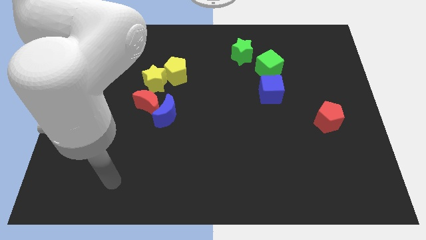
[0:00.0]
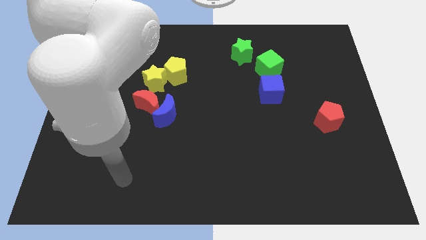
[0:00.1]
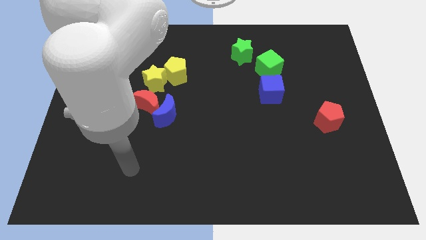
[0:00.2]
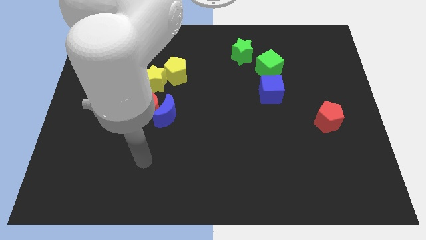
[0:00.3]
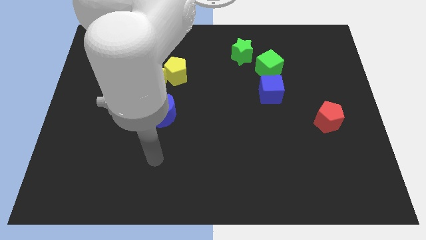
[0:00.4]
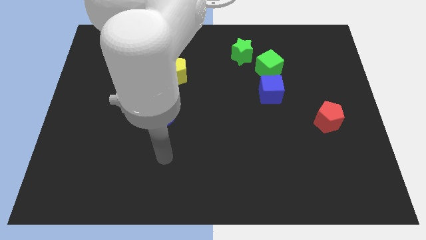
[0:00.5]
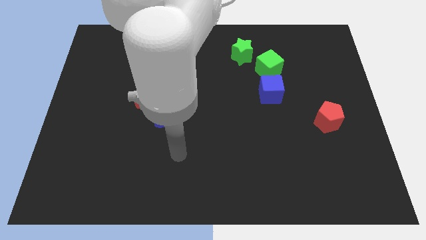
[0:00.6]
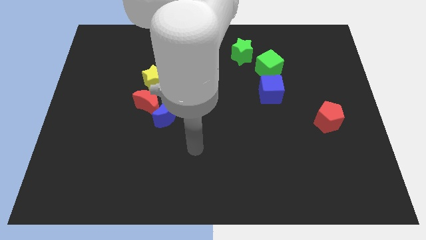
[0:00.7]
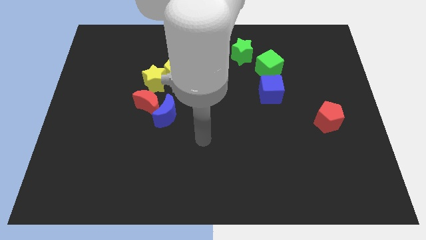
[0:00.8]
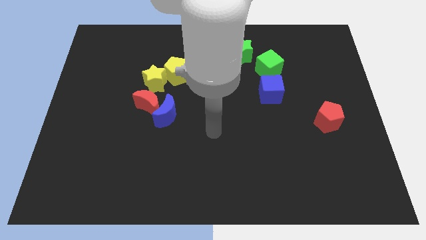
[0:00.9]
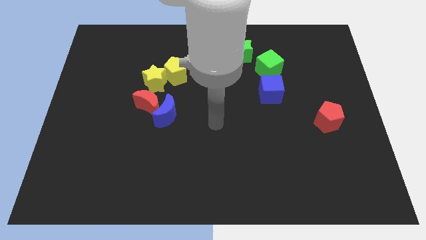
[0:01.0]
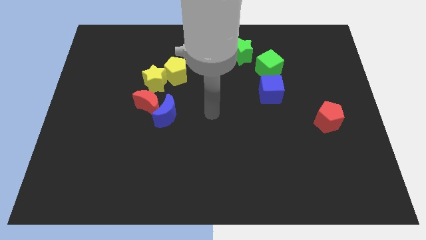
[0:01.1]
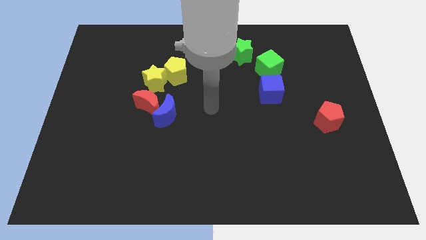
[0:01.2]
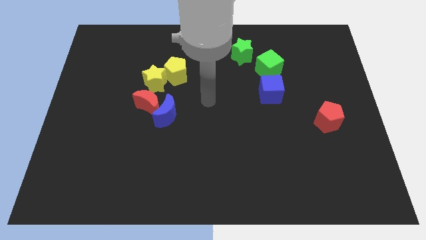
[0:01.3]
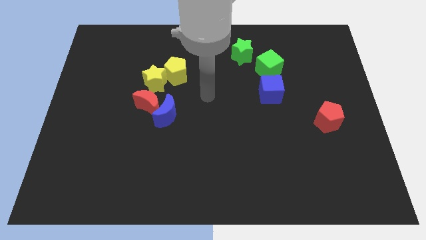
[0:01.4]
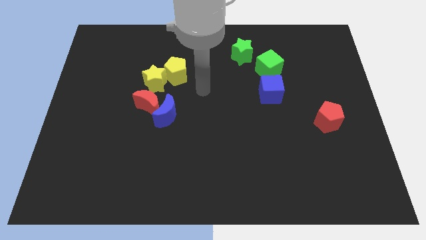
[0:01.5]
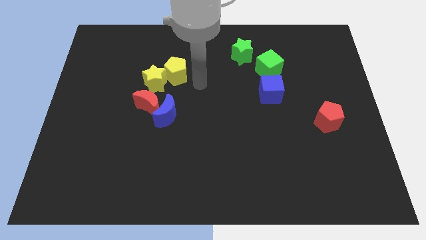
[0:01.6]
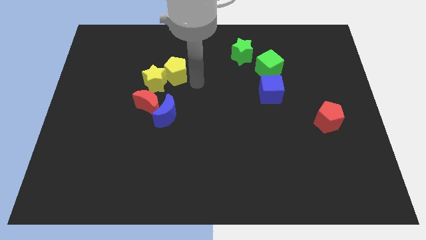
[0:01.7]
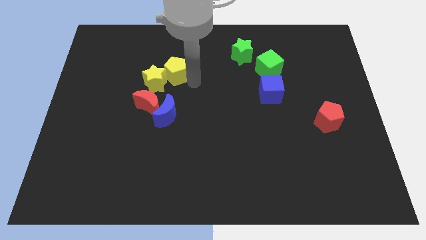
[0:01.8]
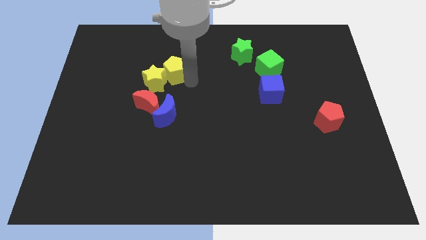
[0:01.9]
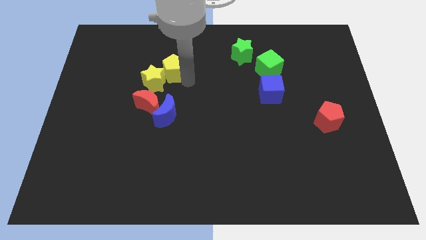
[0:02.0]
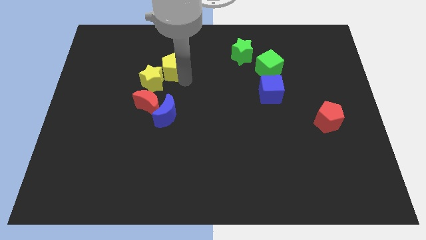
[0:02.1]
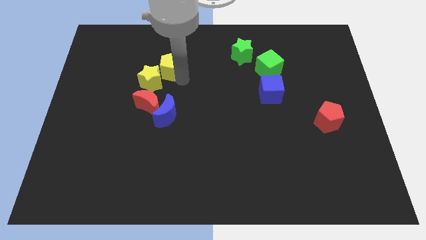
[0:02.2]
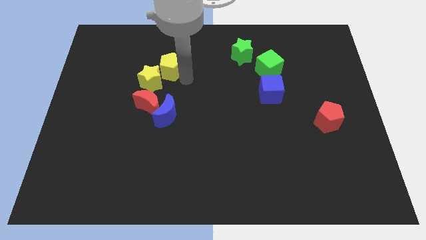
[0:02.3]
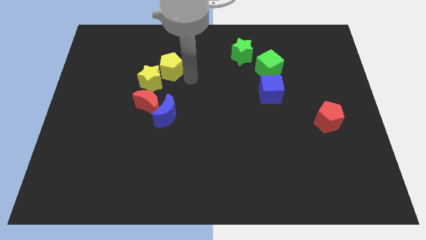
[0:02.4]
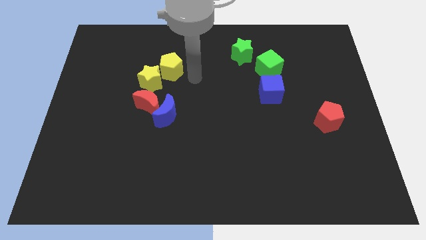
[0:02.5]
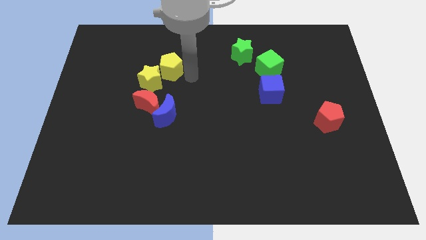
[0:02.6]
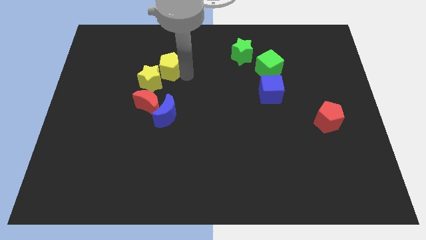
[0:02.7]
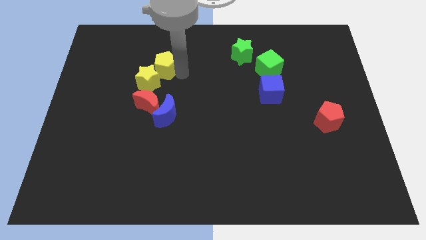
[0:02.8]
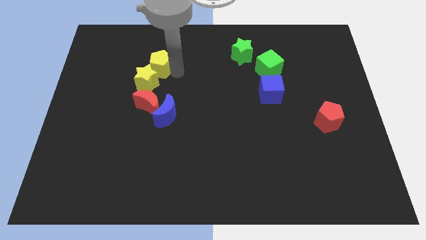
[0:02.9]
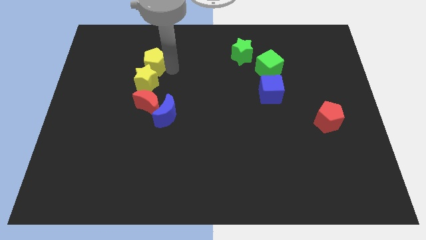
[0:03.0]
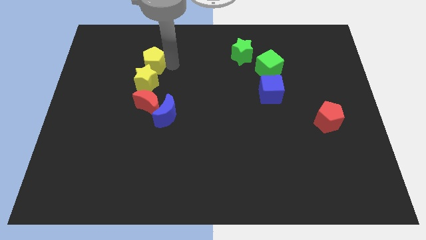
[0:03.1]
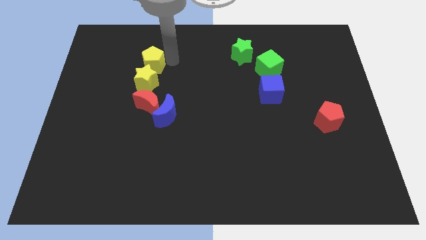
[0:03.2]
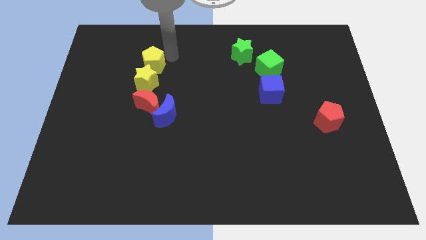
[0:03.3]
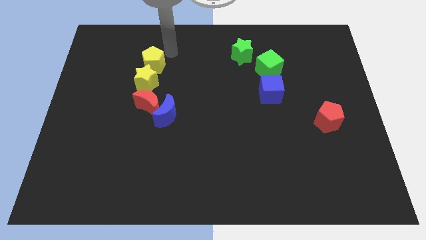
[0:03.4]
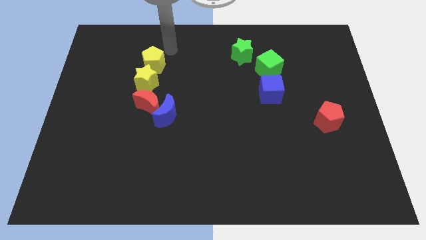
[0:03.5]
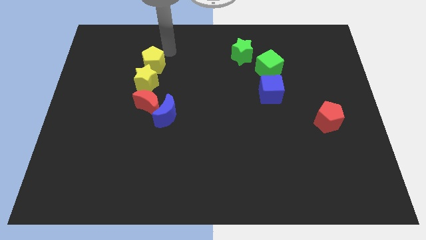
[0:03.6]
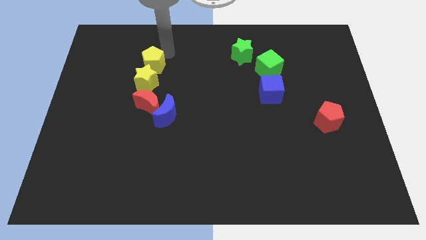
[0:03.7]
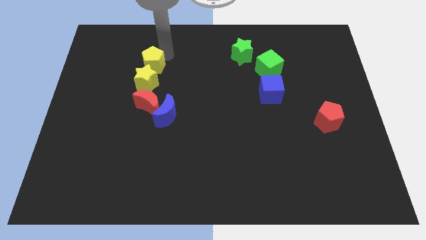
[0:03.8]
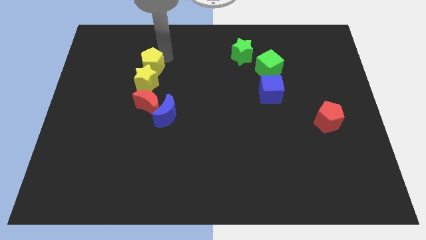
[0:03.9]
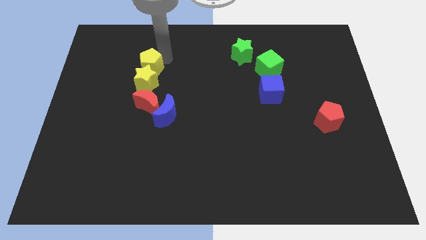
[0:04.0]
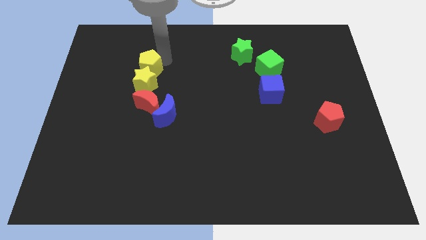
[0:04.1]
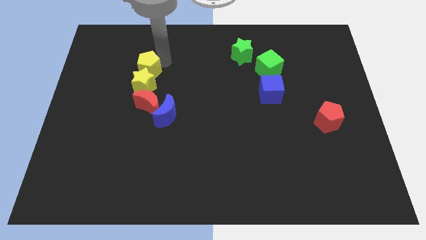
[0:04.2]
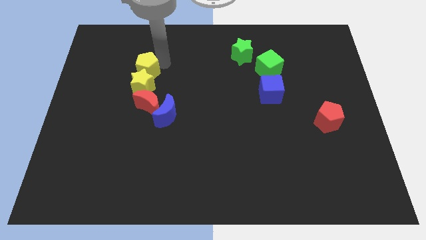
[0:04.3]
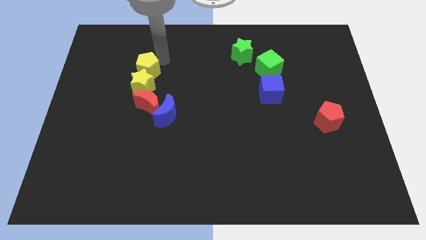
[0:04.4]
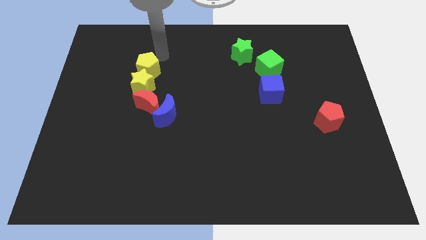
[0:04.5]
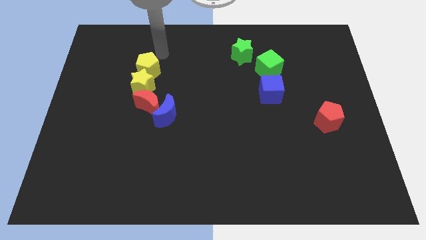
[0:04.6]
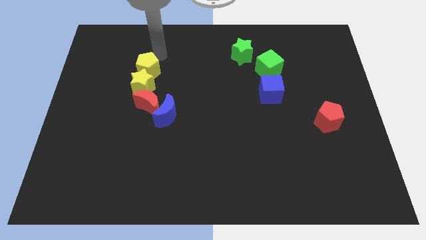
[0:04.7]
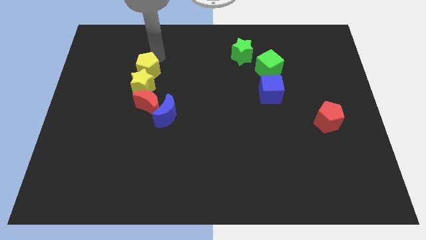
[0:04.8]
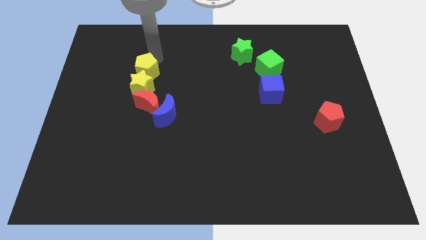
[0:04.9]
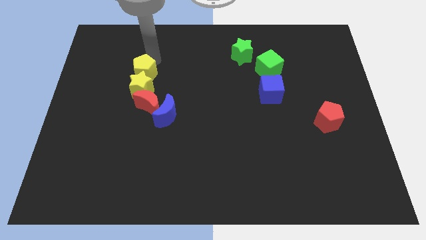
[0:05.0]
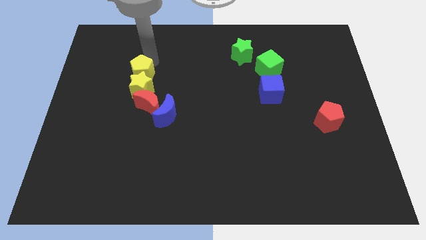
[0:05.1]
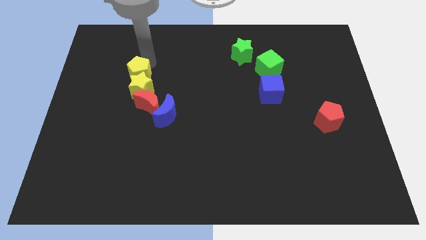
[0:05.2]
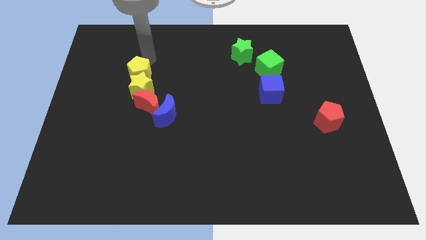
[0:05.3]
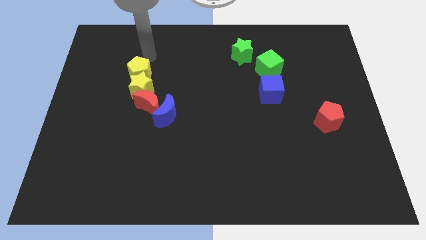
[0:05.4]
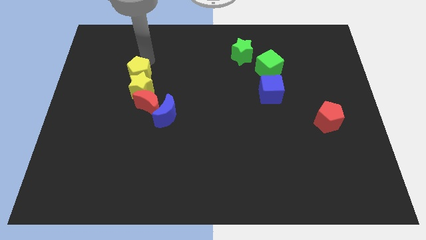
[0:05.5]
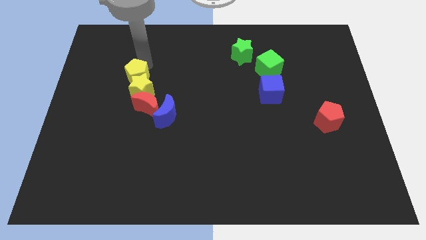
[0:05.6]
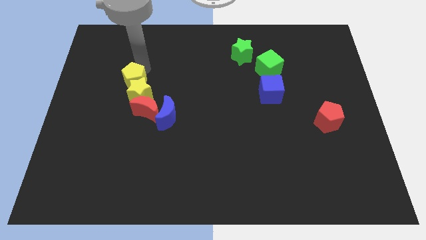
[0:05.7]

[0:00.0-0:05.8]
move the yellow pentagon diagonally downwards and left slightly

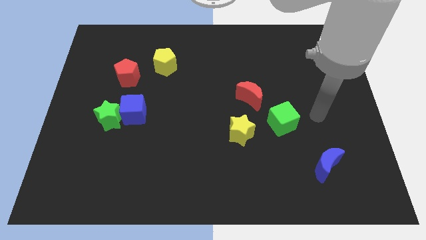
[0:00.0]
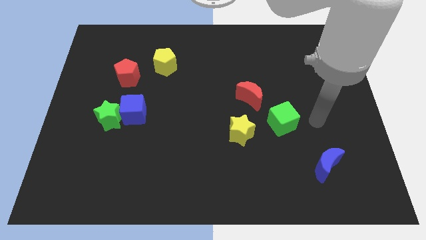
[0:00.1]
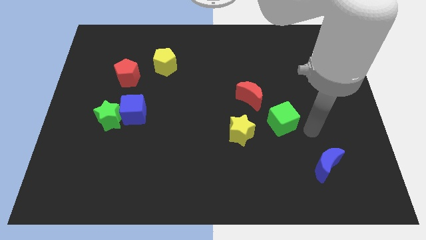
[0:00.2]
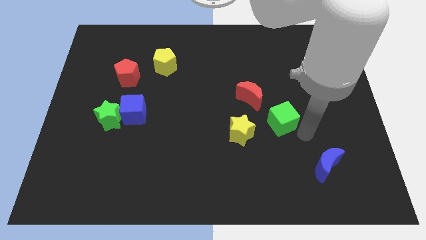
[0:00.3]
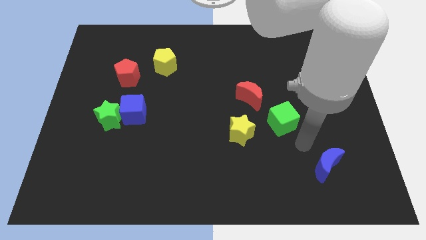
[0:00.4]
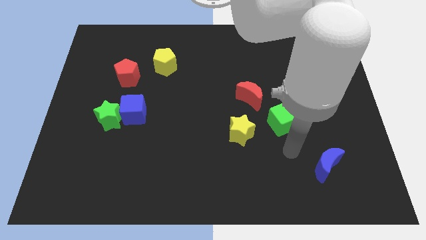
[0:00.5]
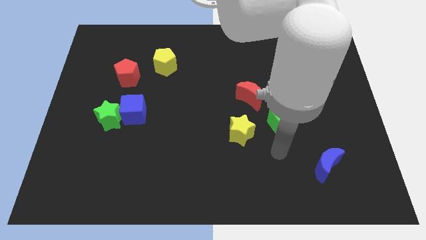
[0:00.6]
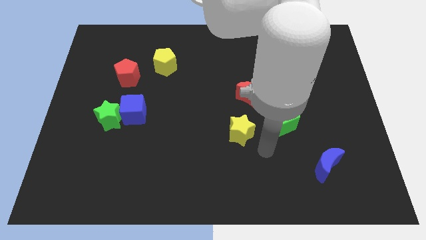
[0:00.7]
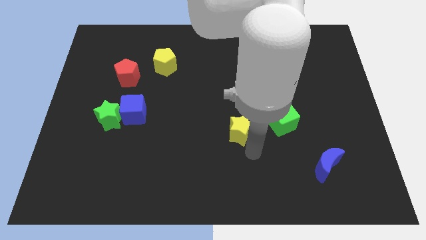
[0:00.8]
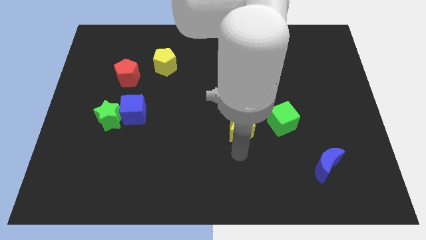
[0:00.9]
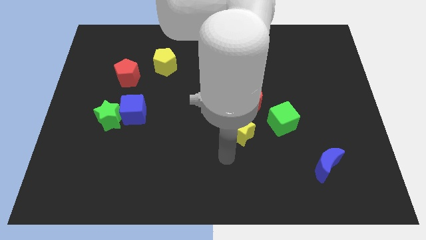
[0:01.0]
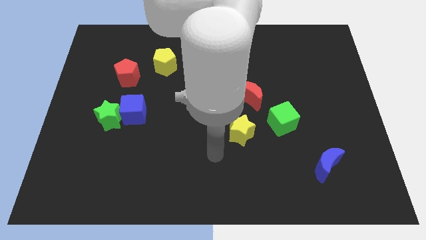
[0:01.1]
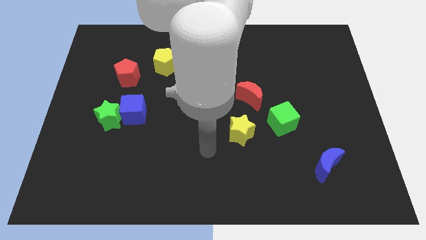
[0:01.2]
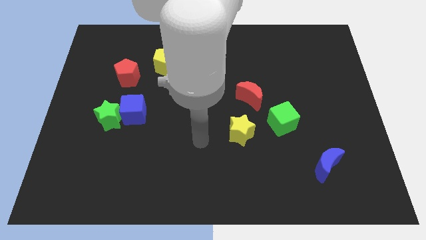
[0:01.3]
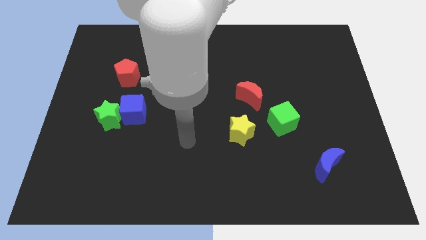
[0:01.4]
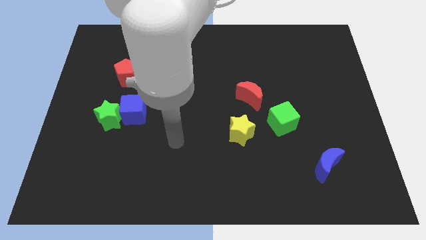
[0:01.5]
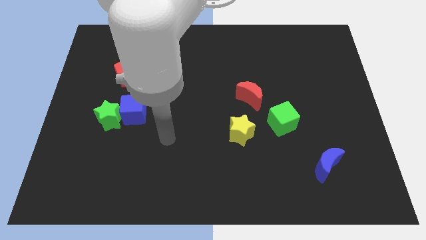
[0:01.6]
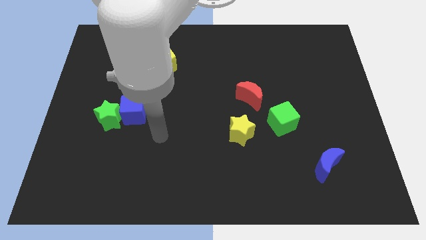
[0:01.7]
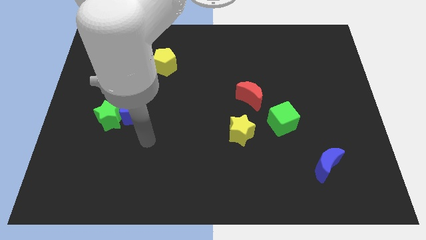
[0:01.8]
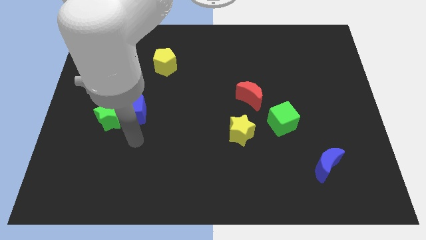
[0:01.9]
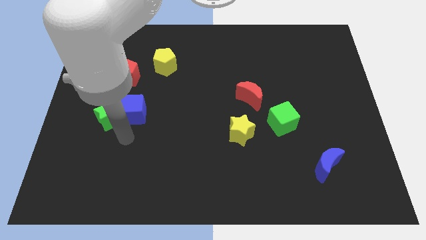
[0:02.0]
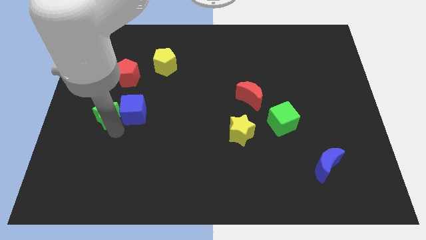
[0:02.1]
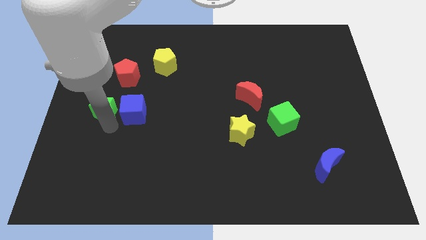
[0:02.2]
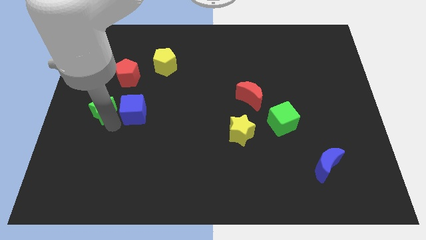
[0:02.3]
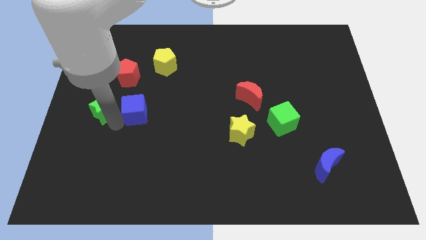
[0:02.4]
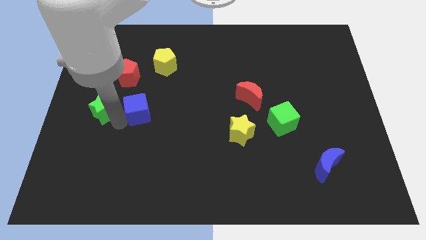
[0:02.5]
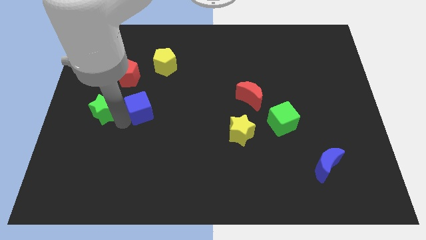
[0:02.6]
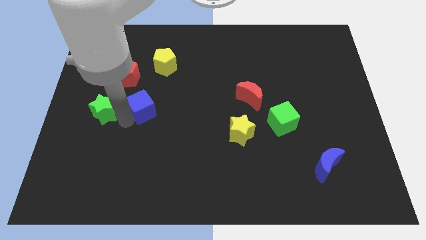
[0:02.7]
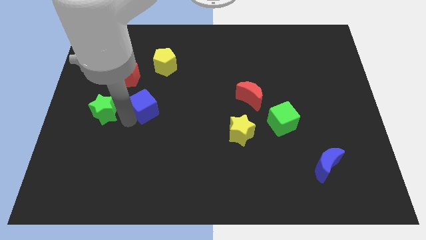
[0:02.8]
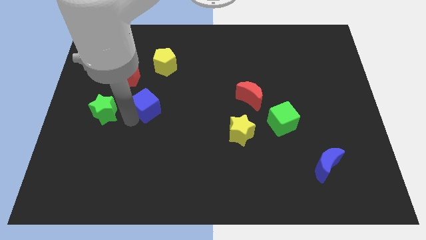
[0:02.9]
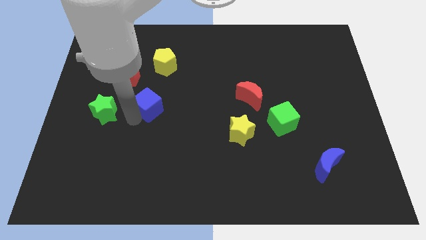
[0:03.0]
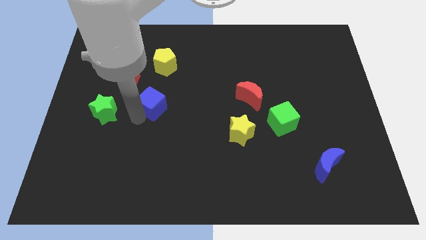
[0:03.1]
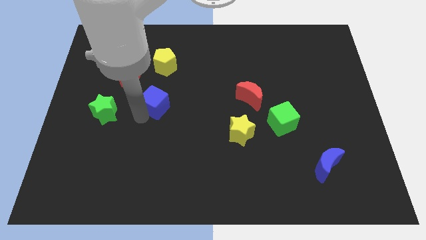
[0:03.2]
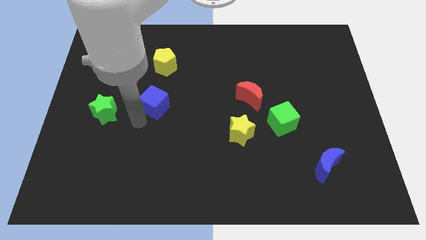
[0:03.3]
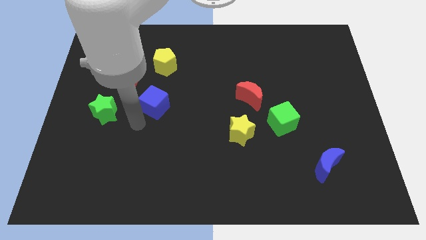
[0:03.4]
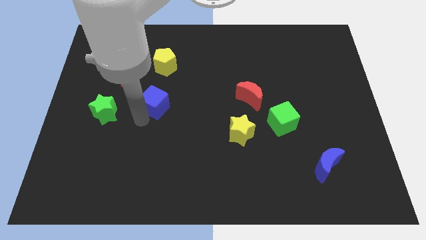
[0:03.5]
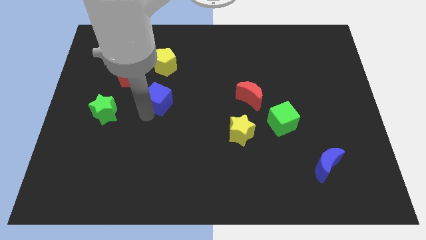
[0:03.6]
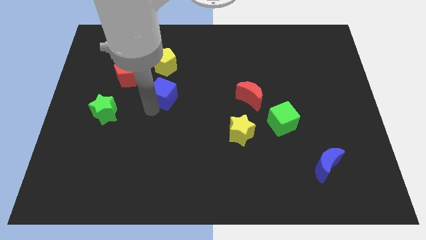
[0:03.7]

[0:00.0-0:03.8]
move the blue cube slightly upwards and right
